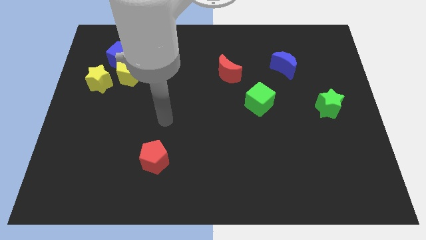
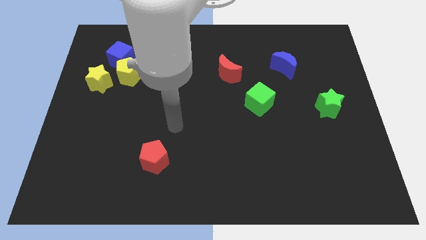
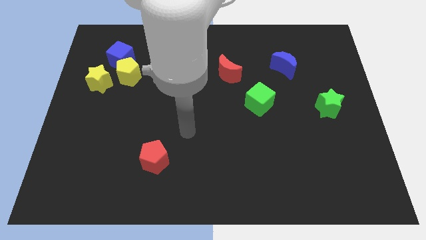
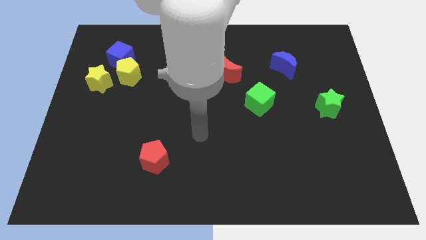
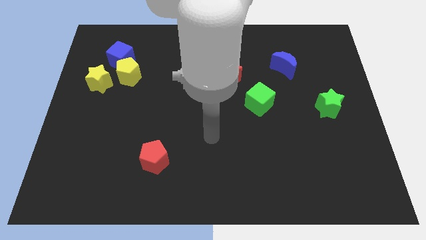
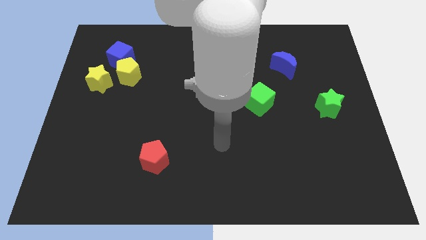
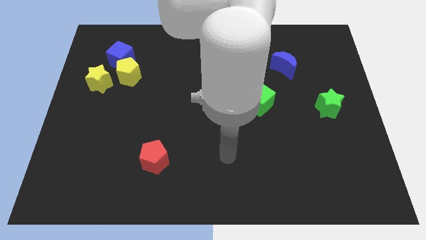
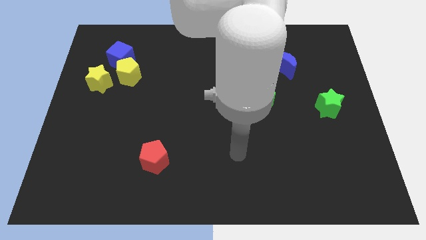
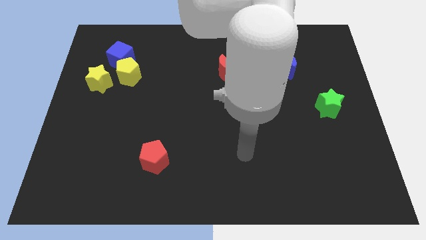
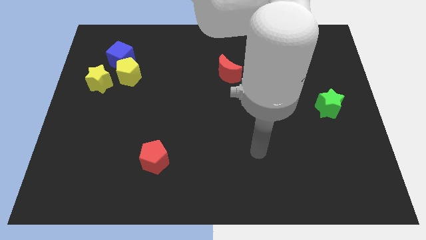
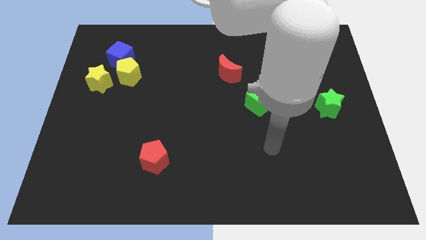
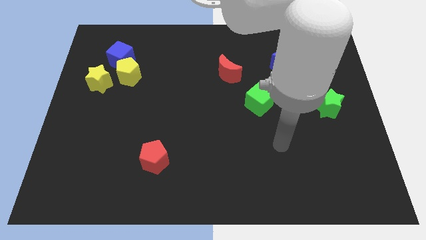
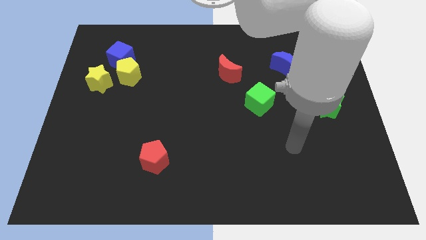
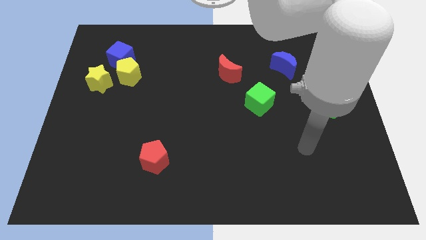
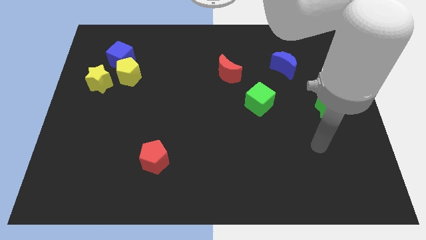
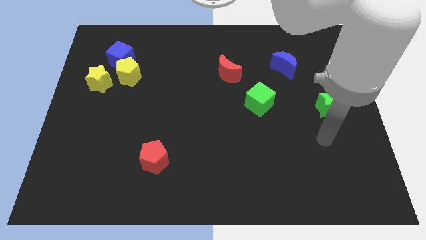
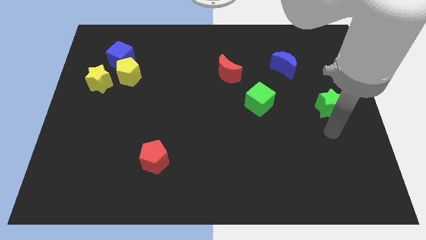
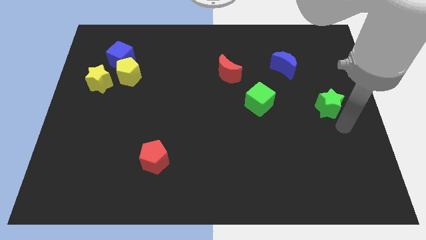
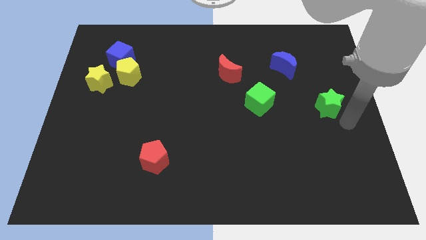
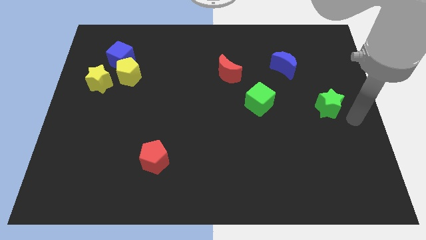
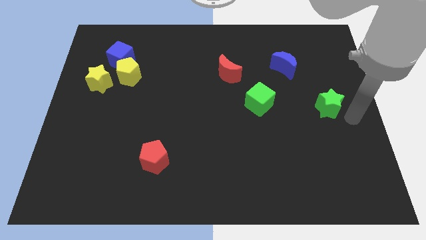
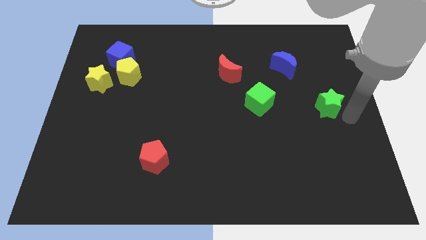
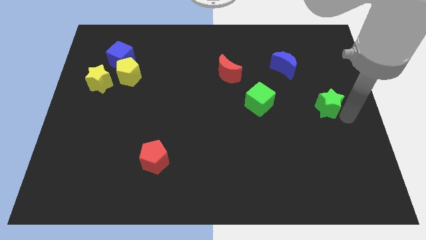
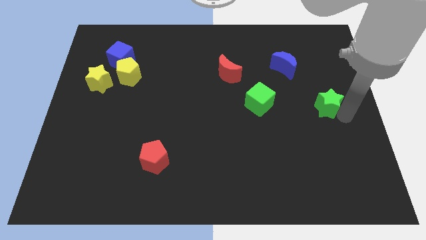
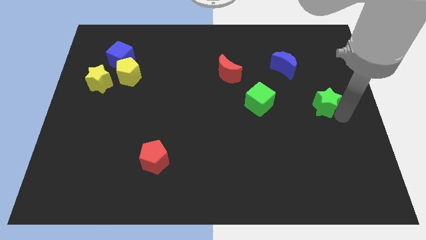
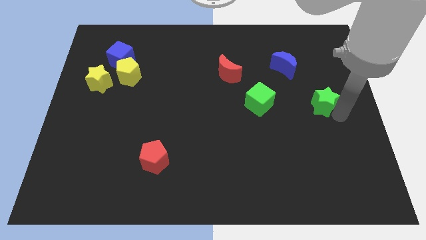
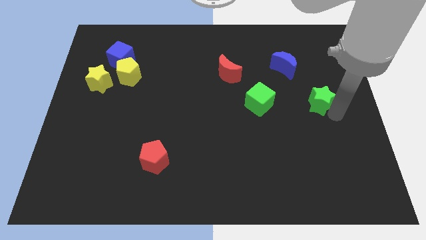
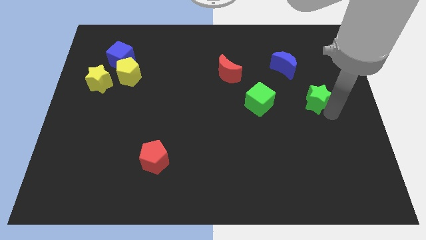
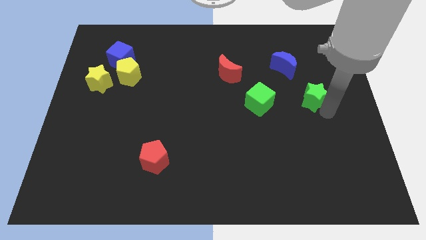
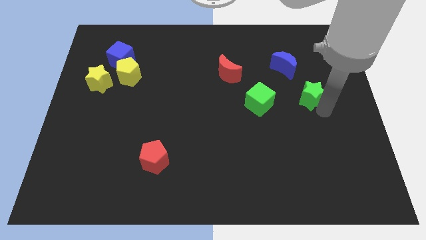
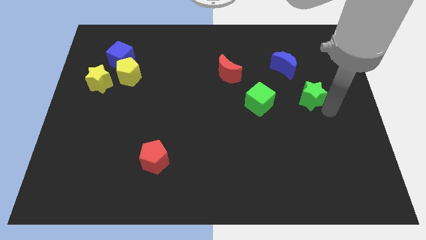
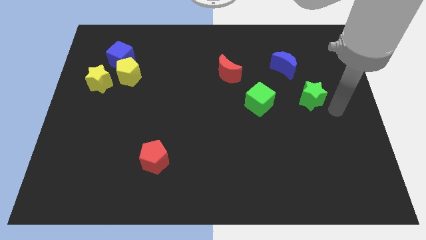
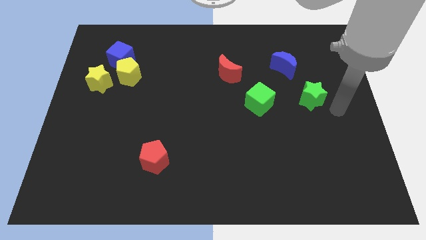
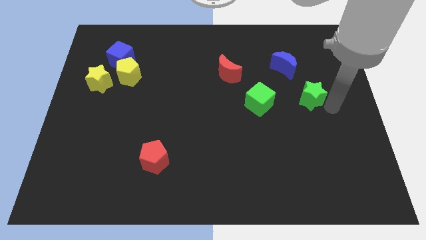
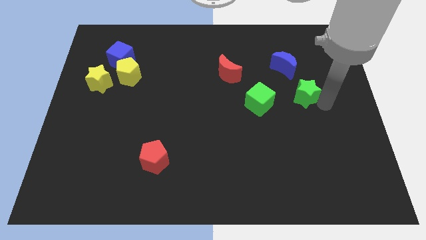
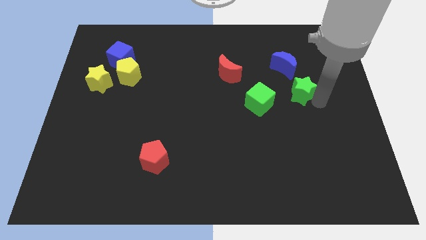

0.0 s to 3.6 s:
move the green star up and to the left diagonally slightly

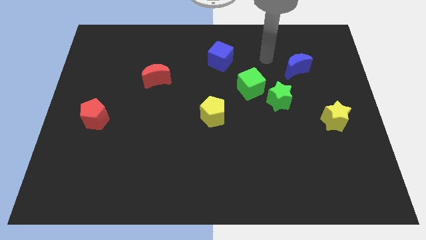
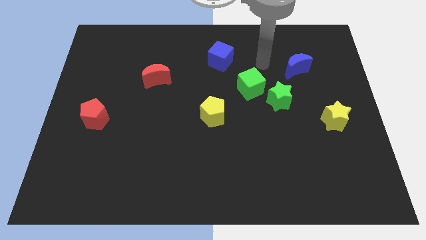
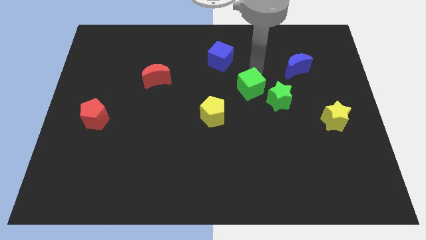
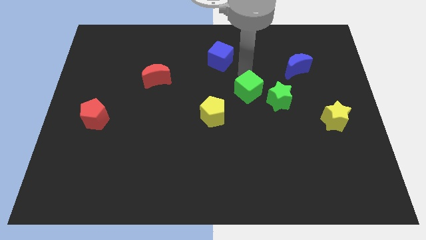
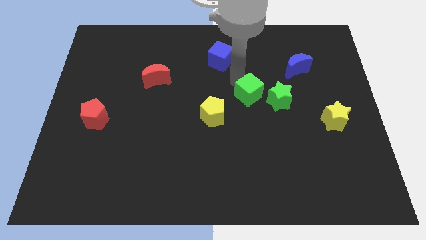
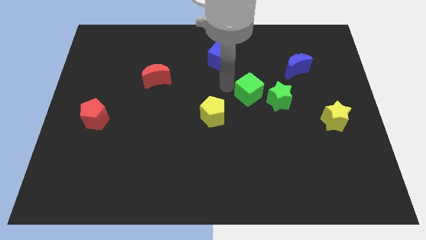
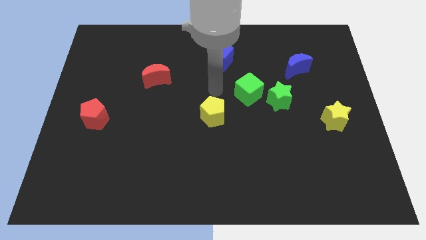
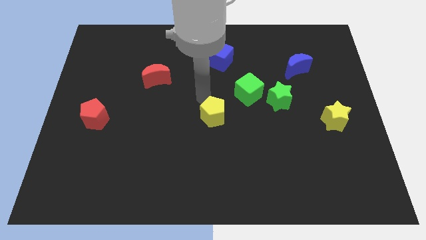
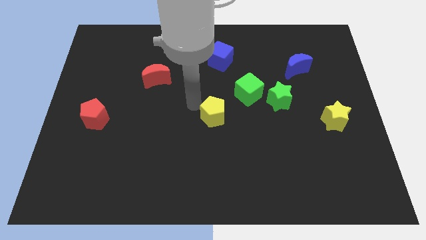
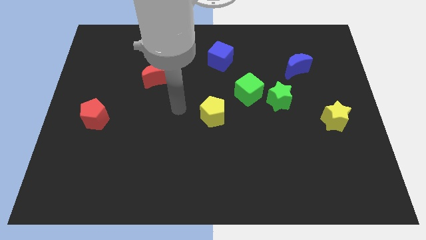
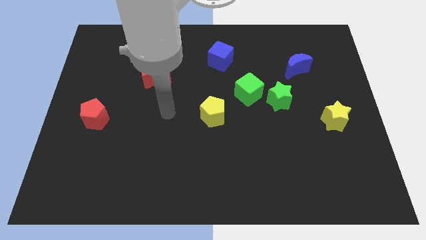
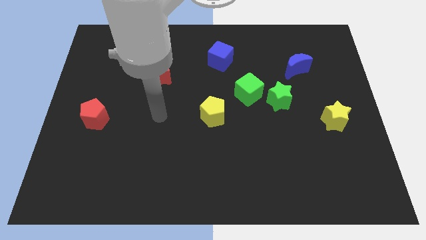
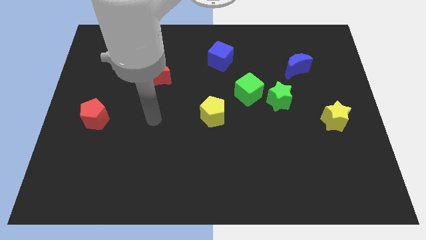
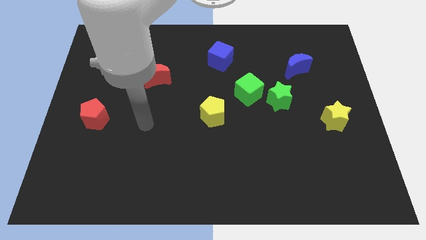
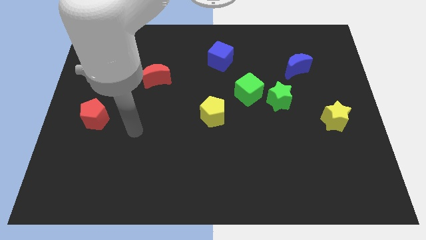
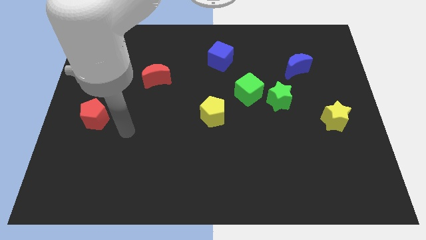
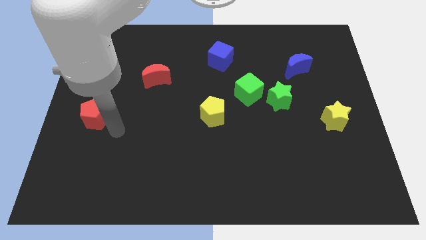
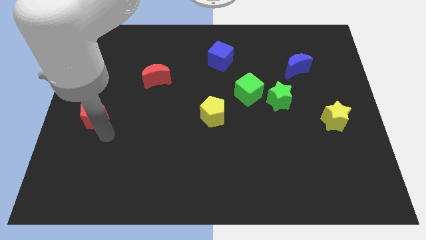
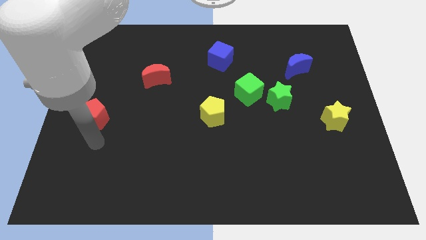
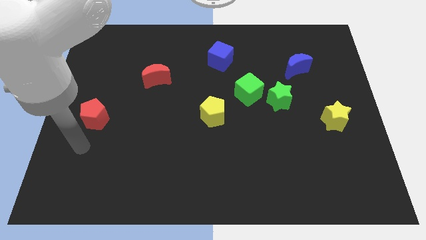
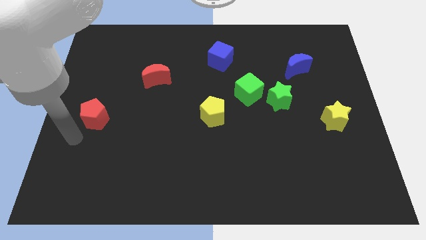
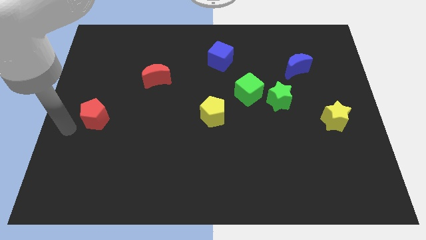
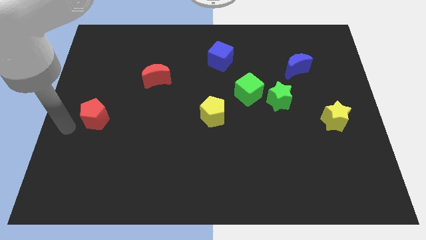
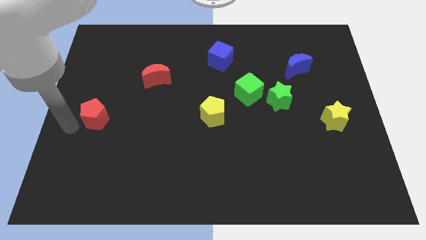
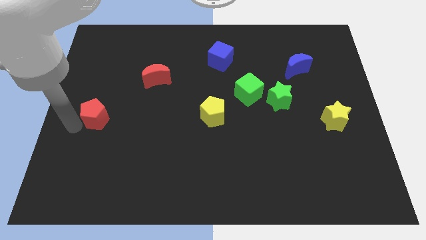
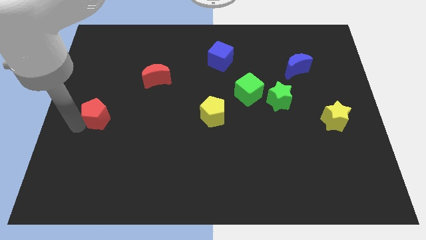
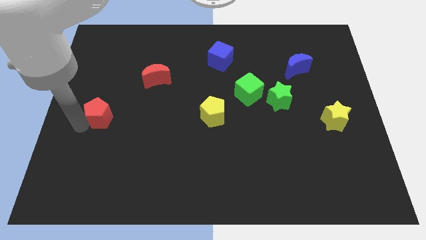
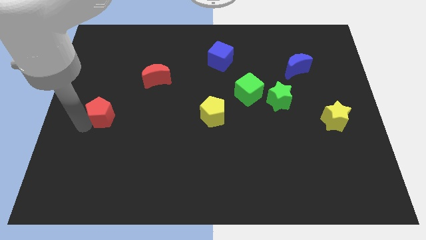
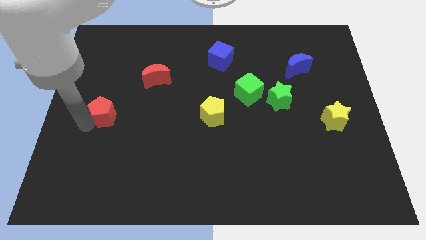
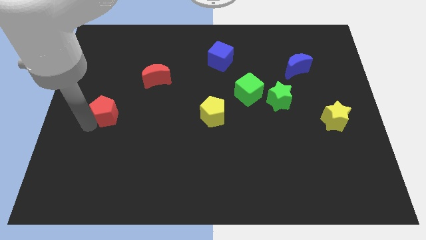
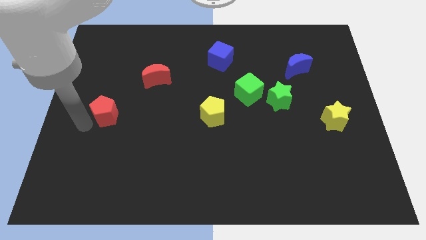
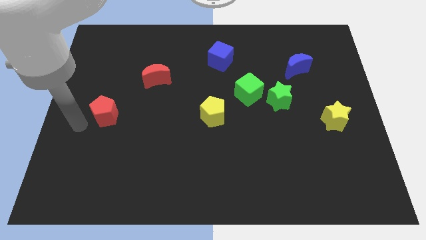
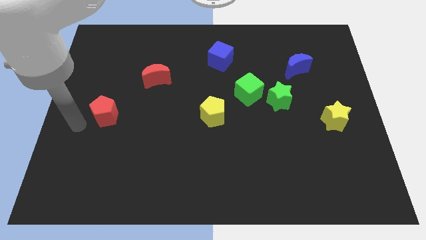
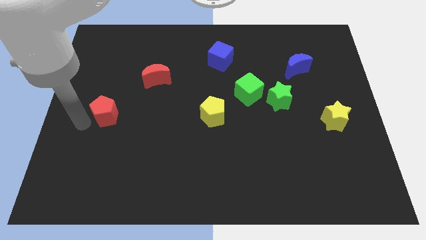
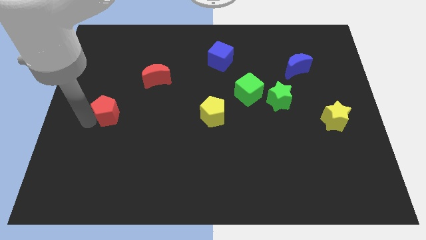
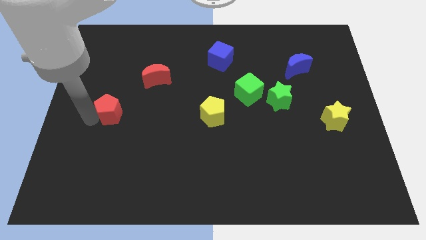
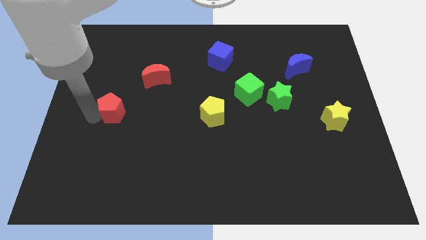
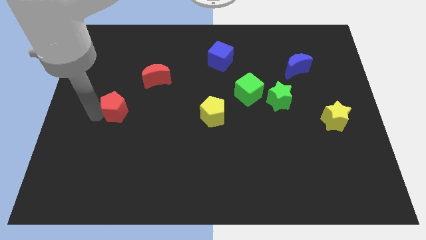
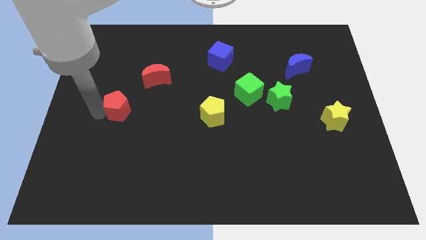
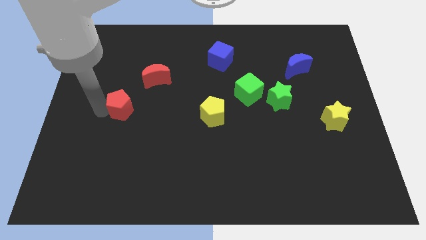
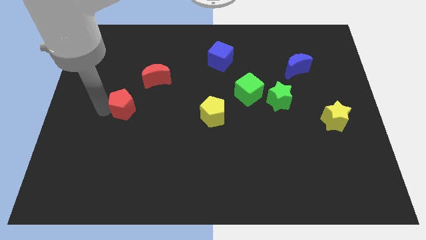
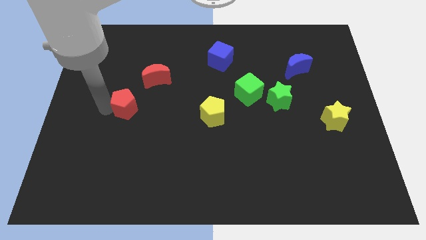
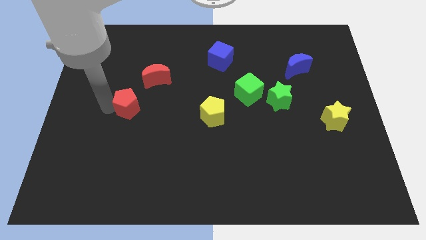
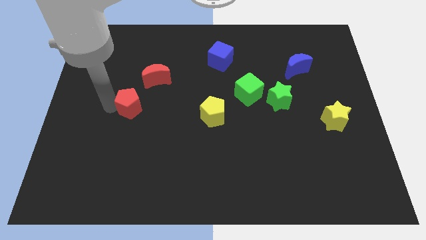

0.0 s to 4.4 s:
push the red pentagon right slightly
